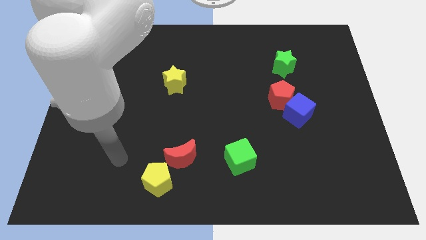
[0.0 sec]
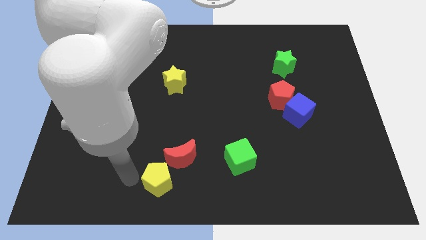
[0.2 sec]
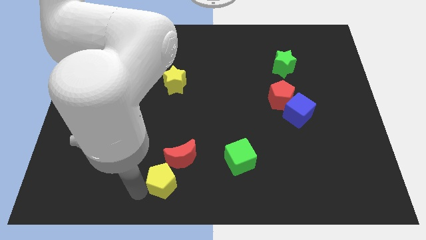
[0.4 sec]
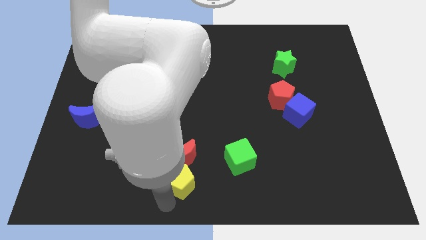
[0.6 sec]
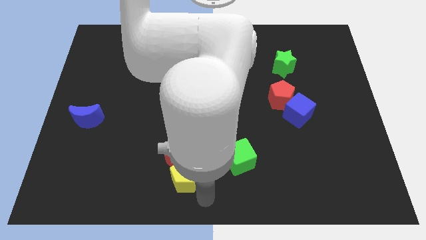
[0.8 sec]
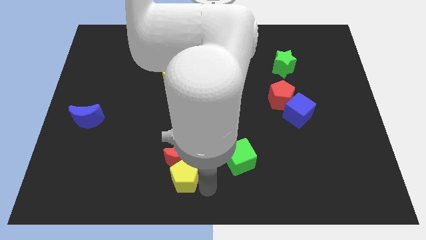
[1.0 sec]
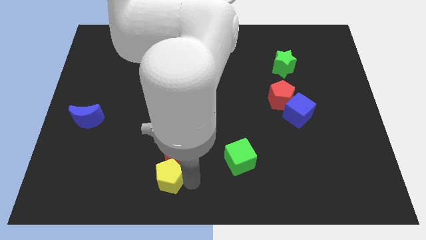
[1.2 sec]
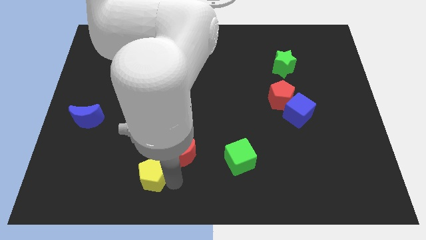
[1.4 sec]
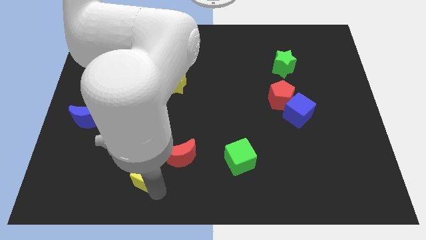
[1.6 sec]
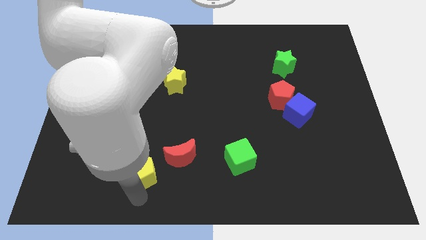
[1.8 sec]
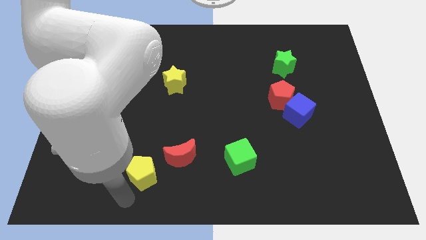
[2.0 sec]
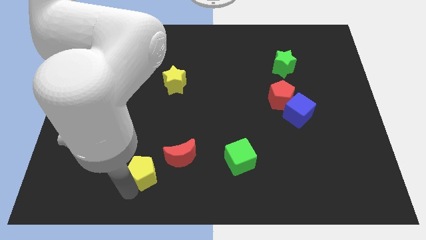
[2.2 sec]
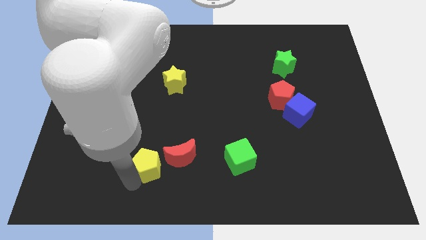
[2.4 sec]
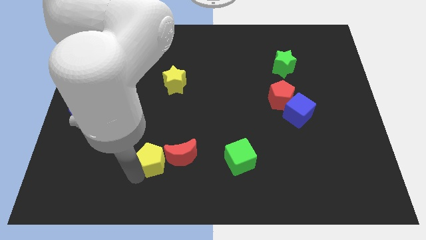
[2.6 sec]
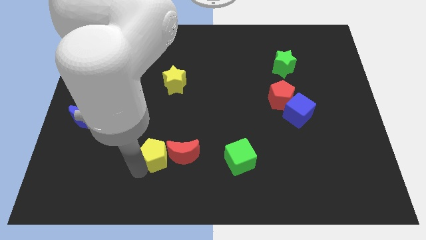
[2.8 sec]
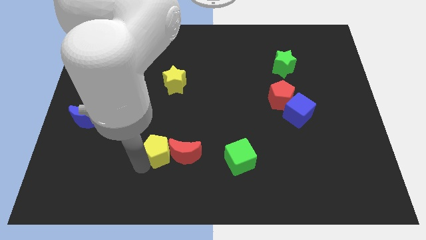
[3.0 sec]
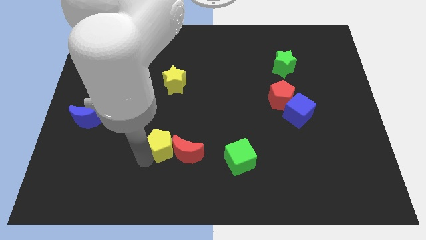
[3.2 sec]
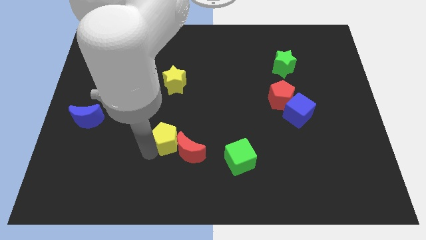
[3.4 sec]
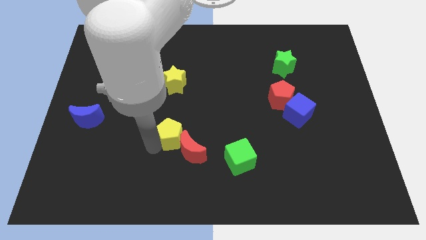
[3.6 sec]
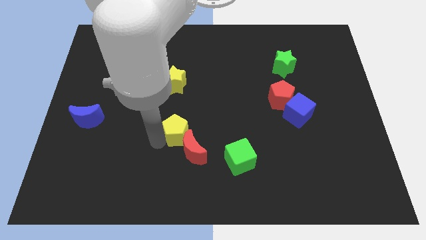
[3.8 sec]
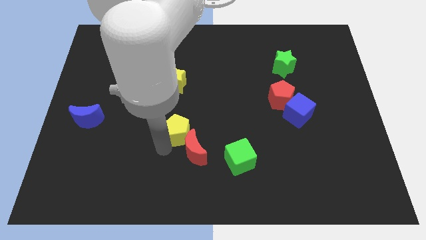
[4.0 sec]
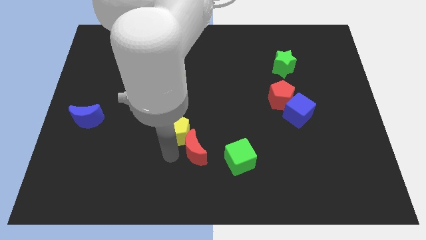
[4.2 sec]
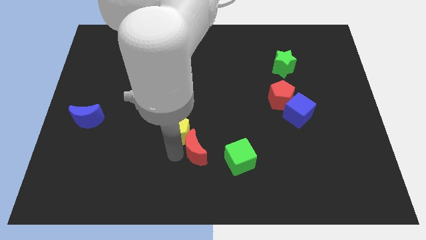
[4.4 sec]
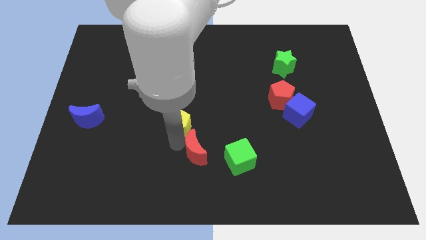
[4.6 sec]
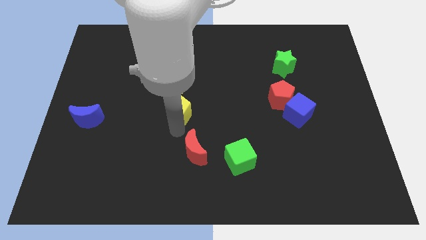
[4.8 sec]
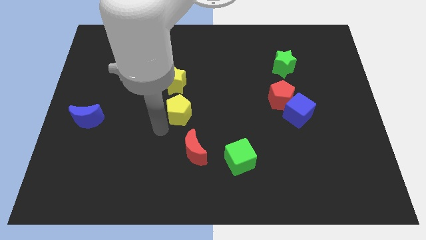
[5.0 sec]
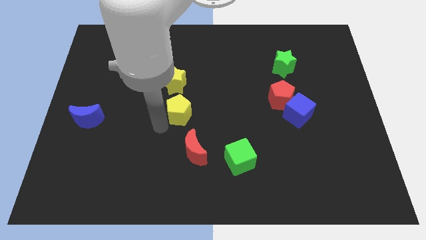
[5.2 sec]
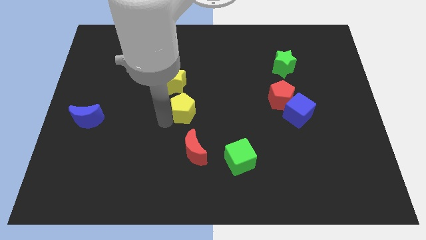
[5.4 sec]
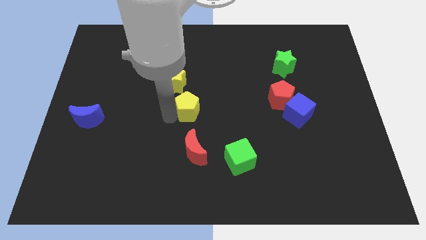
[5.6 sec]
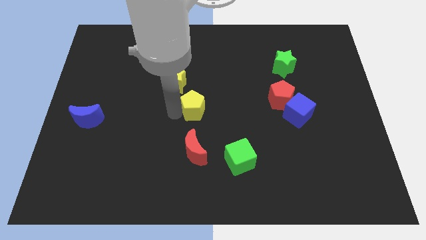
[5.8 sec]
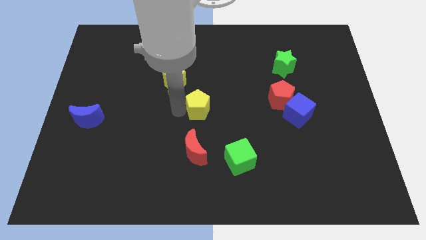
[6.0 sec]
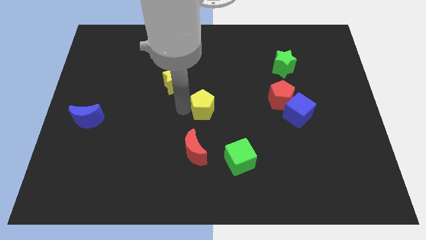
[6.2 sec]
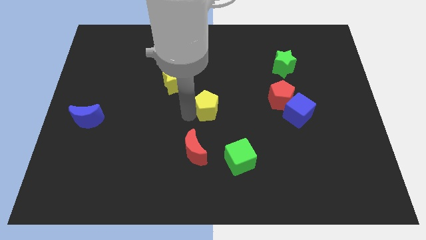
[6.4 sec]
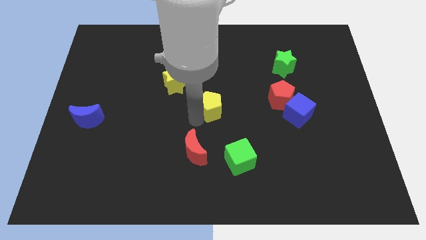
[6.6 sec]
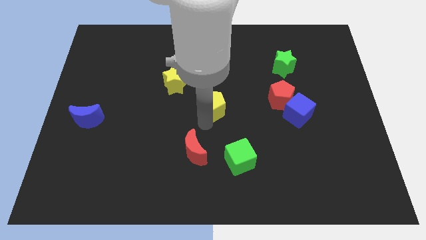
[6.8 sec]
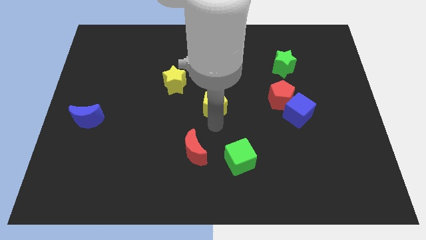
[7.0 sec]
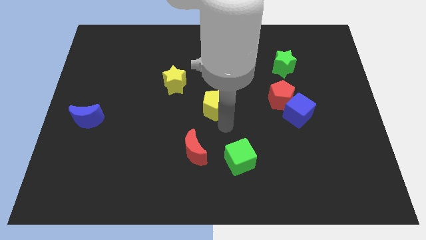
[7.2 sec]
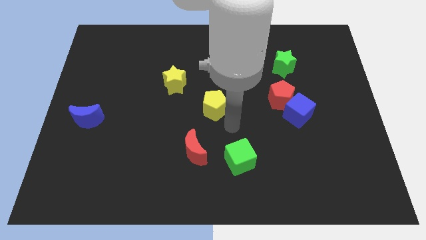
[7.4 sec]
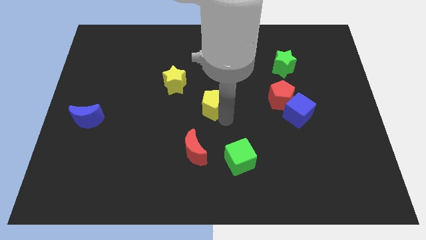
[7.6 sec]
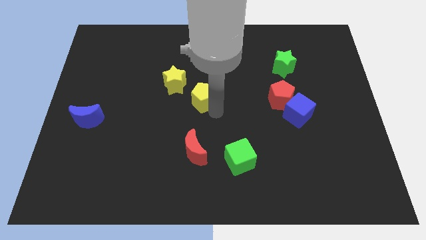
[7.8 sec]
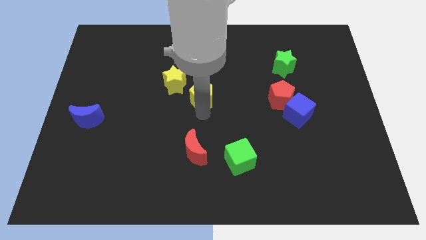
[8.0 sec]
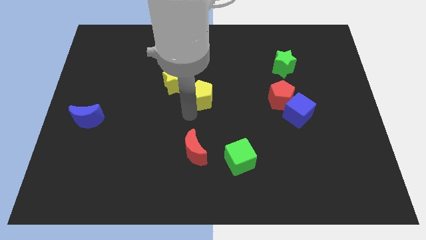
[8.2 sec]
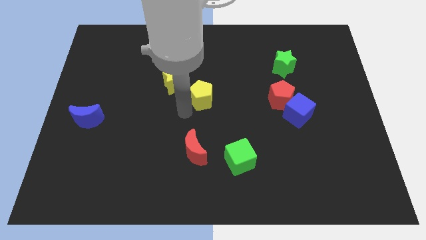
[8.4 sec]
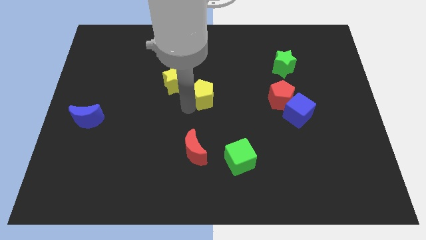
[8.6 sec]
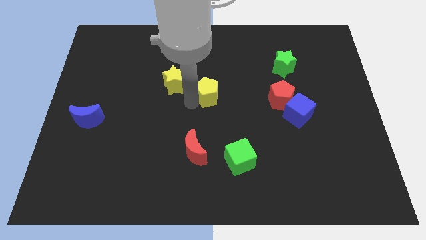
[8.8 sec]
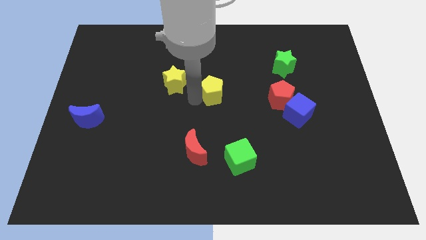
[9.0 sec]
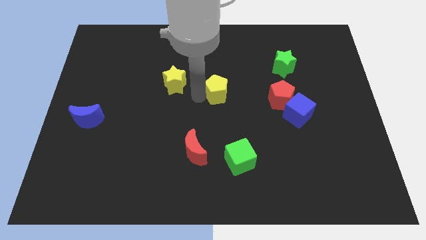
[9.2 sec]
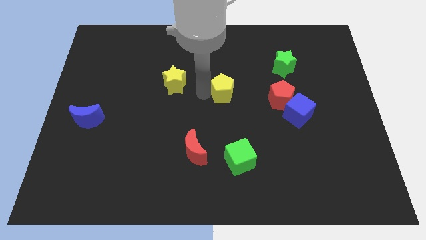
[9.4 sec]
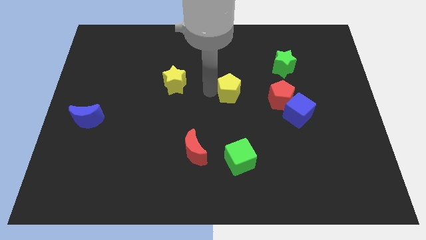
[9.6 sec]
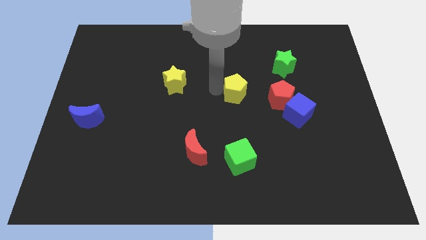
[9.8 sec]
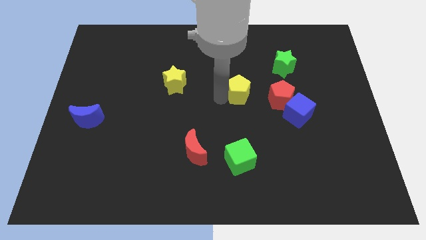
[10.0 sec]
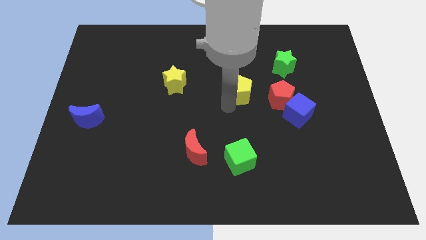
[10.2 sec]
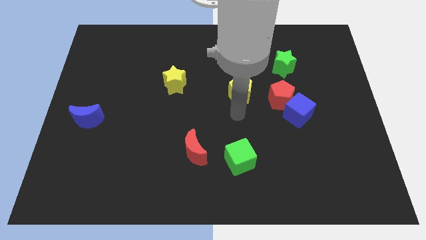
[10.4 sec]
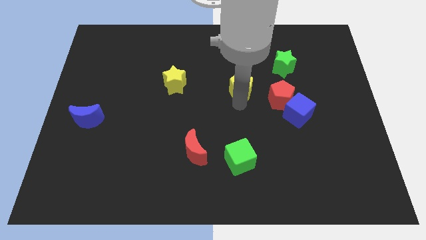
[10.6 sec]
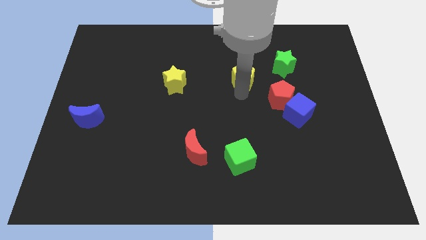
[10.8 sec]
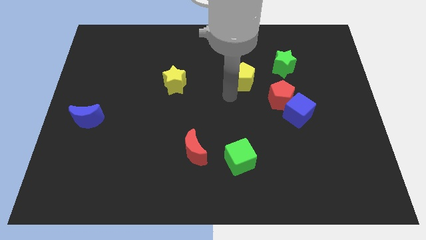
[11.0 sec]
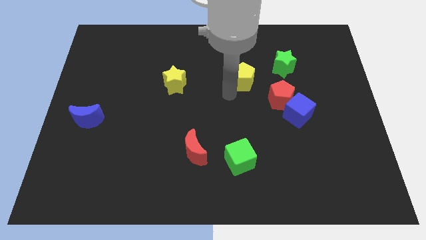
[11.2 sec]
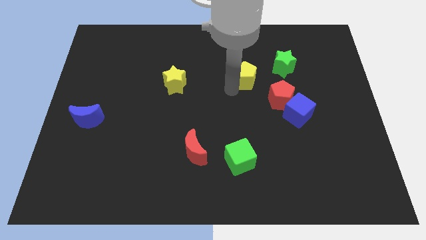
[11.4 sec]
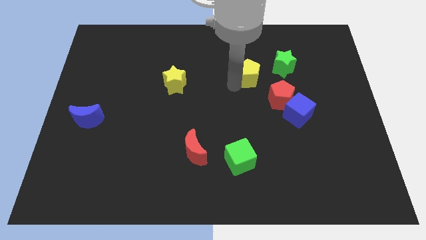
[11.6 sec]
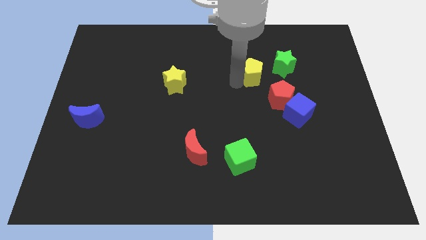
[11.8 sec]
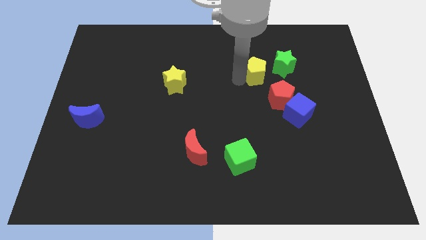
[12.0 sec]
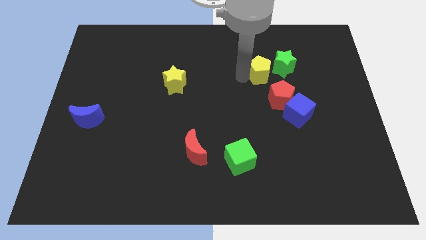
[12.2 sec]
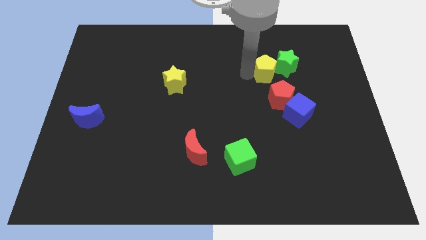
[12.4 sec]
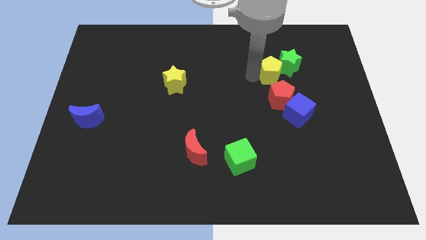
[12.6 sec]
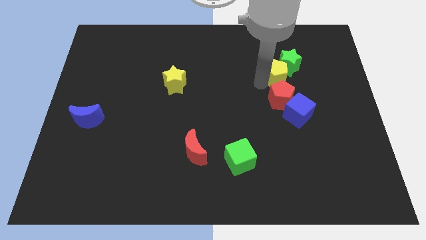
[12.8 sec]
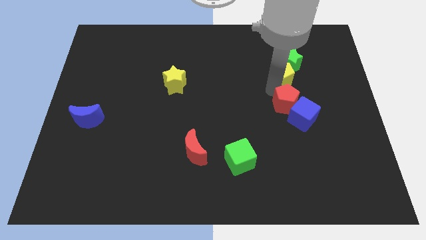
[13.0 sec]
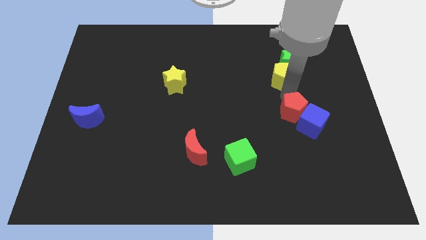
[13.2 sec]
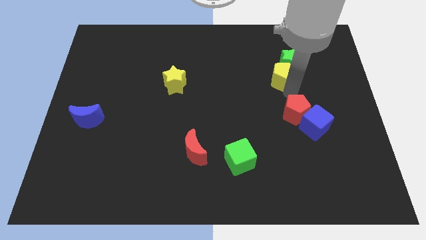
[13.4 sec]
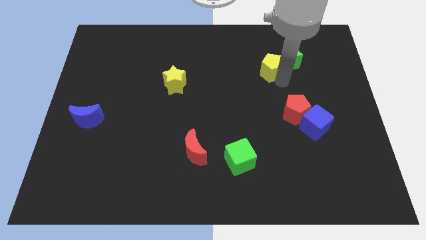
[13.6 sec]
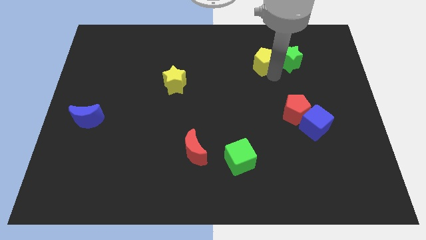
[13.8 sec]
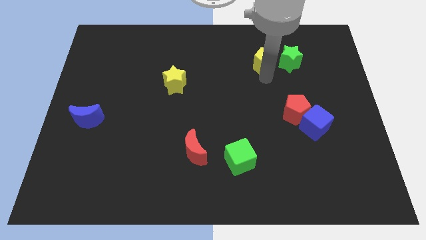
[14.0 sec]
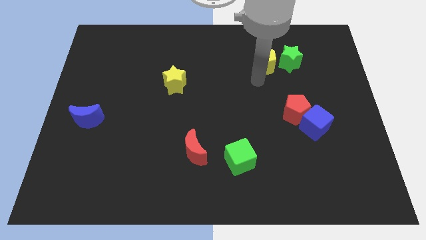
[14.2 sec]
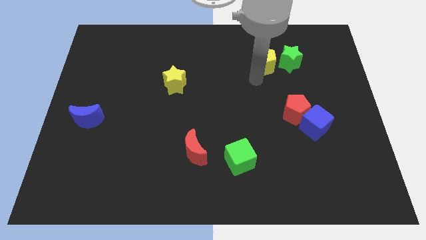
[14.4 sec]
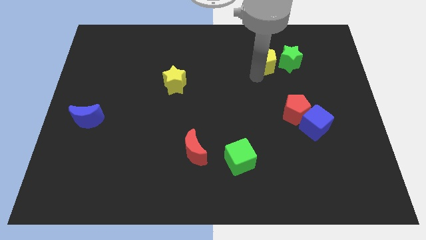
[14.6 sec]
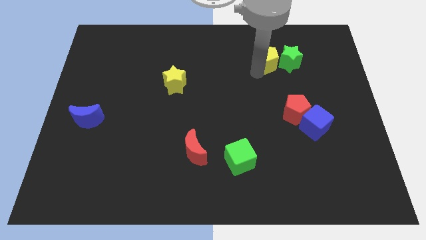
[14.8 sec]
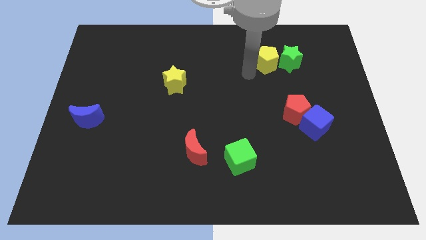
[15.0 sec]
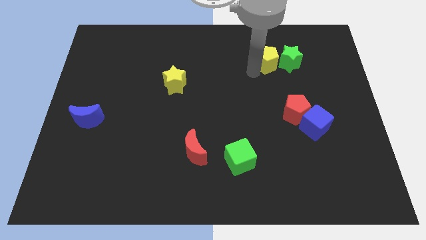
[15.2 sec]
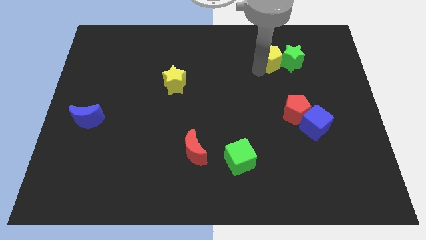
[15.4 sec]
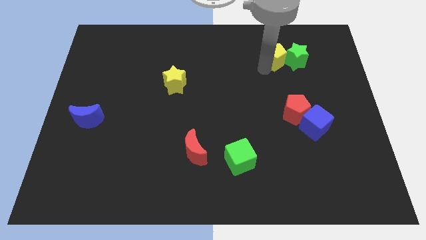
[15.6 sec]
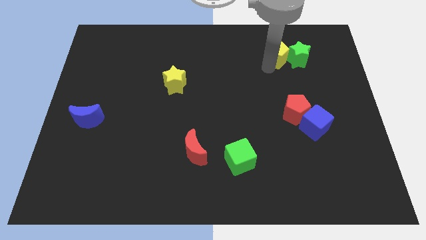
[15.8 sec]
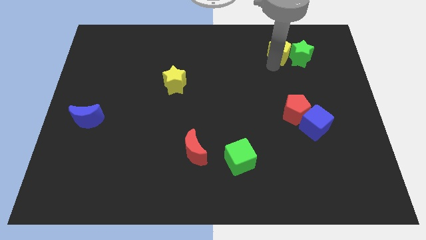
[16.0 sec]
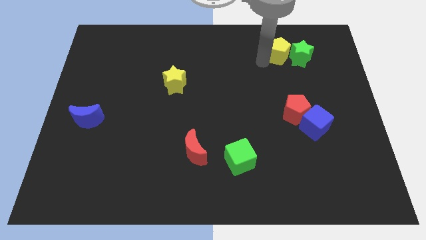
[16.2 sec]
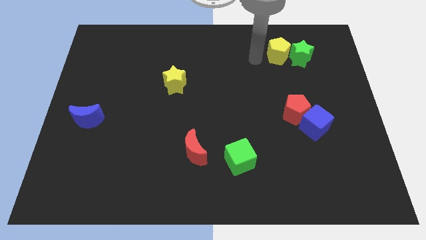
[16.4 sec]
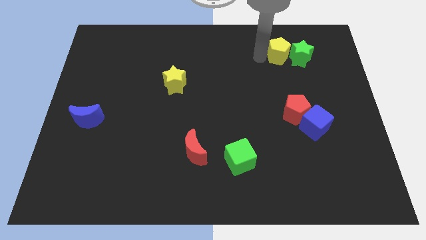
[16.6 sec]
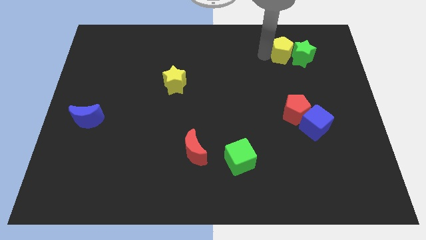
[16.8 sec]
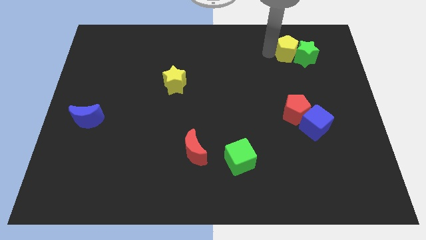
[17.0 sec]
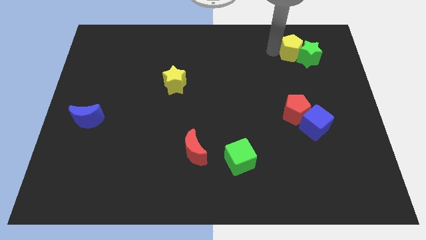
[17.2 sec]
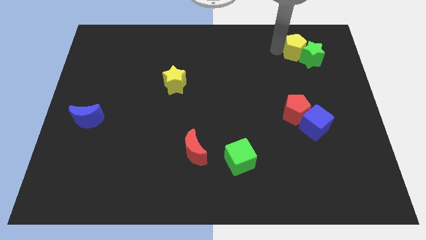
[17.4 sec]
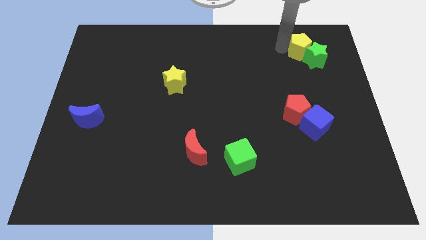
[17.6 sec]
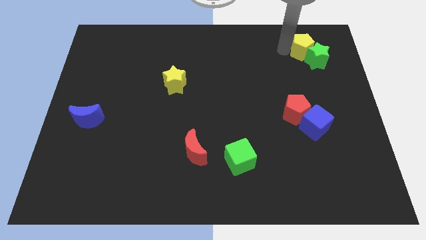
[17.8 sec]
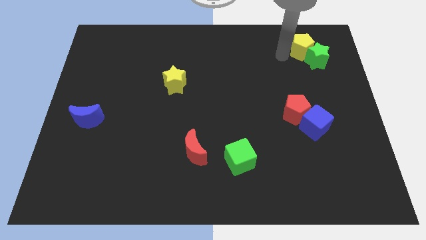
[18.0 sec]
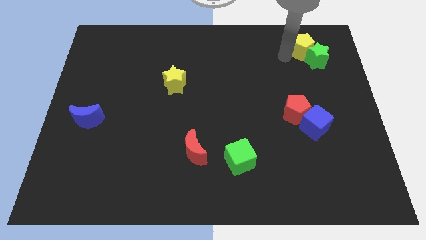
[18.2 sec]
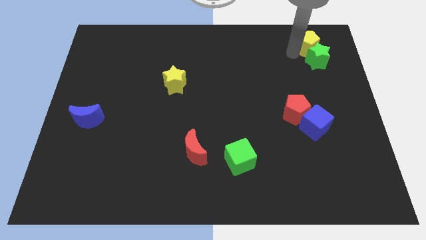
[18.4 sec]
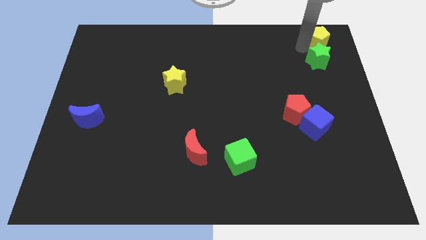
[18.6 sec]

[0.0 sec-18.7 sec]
slide the yellow pentagon to the top right of the board
